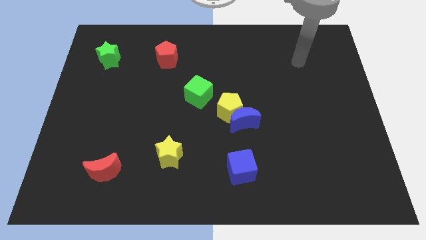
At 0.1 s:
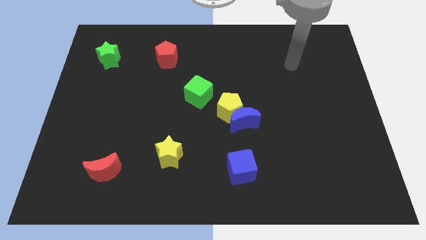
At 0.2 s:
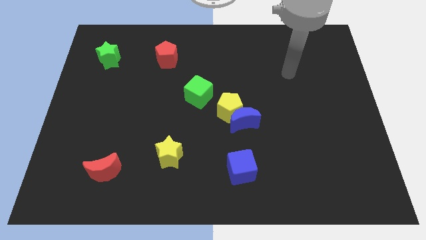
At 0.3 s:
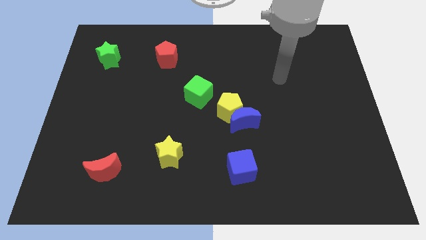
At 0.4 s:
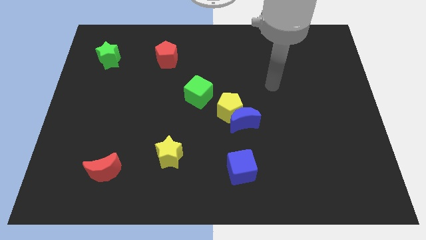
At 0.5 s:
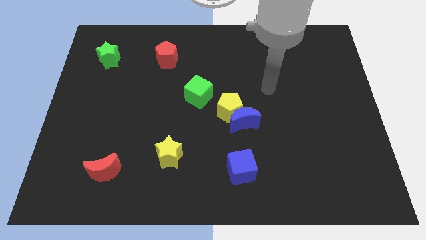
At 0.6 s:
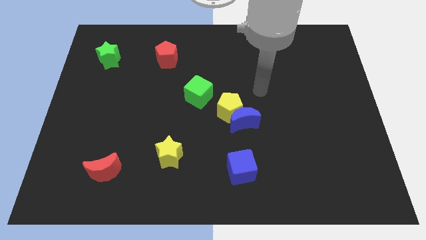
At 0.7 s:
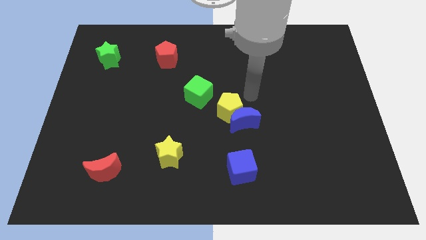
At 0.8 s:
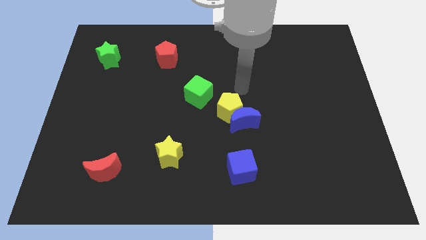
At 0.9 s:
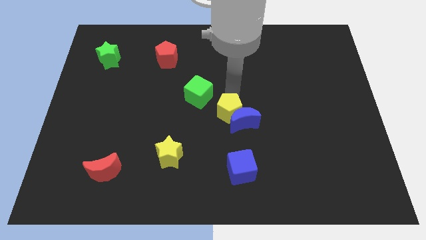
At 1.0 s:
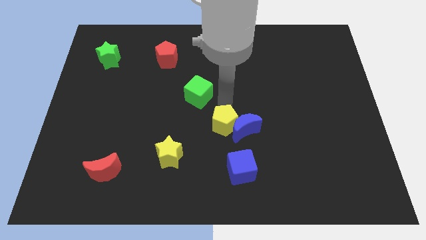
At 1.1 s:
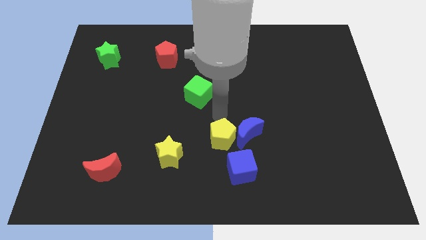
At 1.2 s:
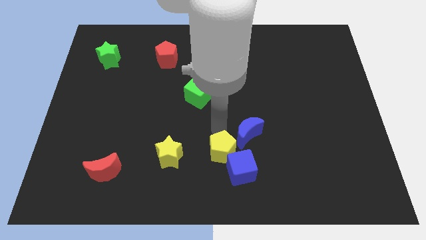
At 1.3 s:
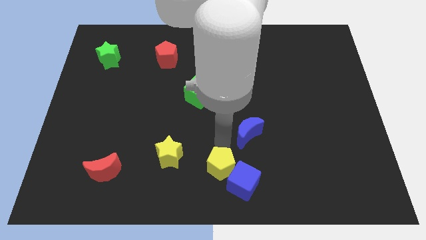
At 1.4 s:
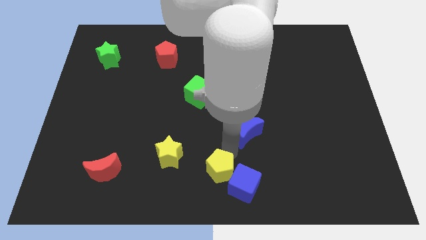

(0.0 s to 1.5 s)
pull the blue moon apart from the yellow pentagon

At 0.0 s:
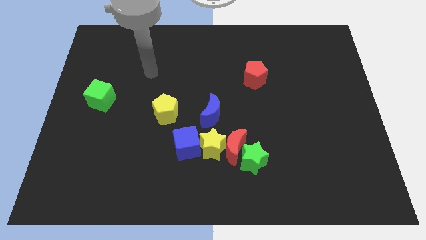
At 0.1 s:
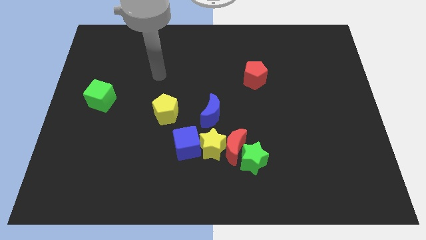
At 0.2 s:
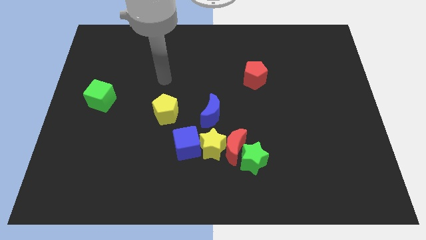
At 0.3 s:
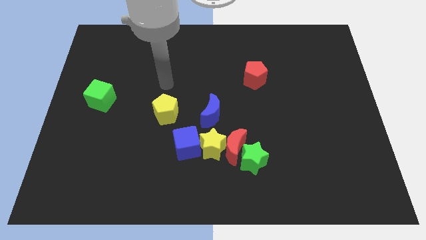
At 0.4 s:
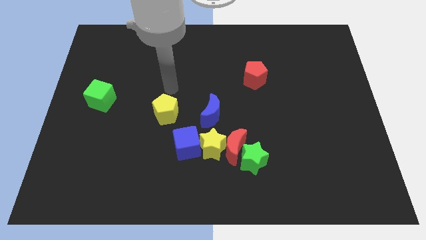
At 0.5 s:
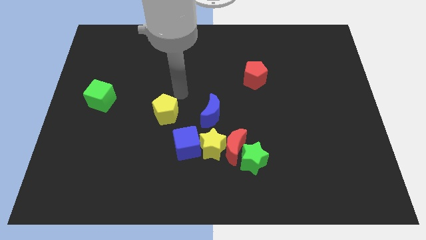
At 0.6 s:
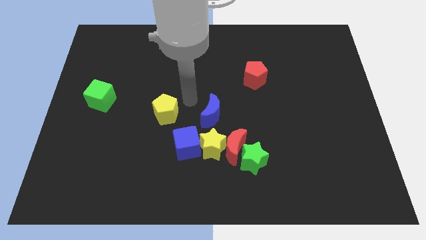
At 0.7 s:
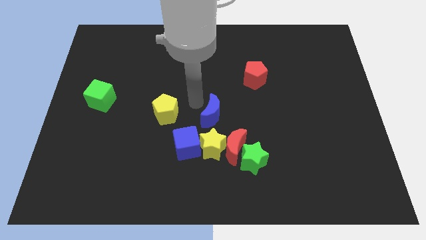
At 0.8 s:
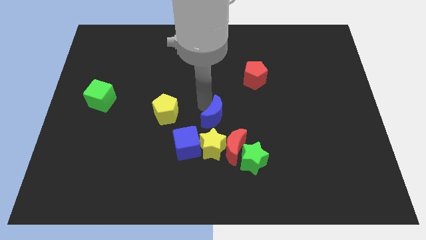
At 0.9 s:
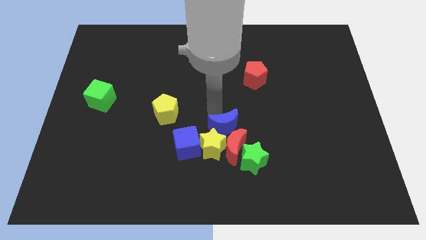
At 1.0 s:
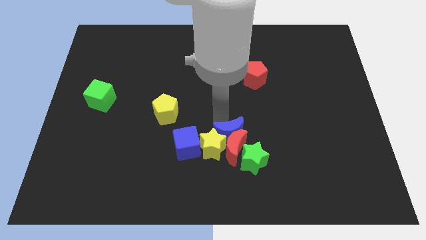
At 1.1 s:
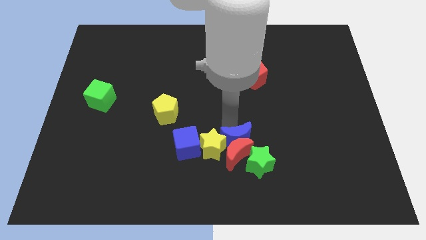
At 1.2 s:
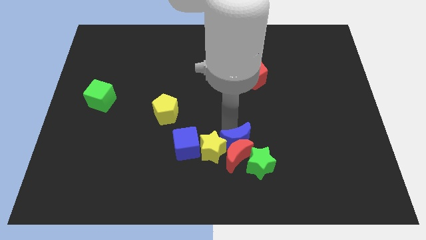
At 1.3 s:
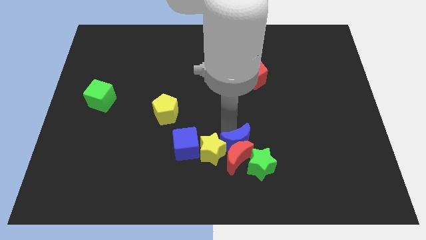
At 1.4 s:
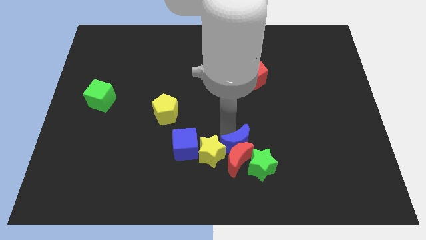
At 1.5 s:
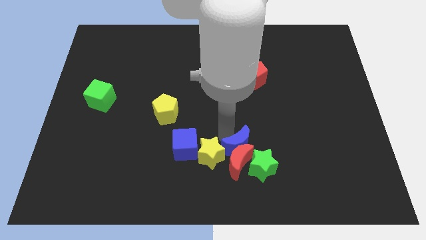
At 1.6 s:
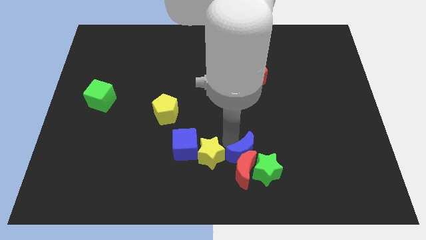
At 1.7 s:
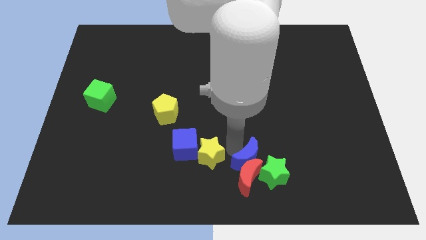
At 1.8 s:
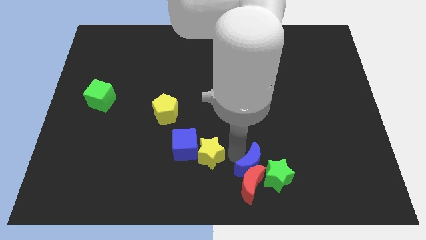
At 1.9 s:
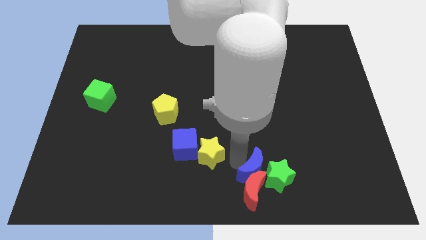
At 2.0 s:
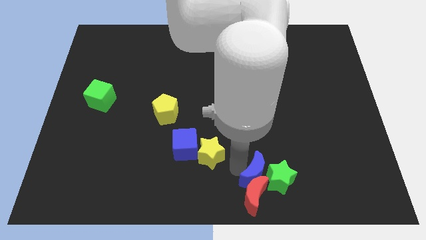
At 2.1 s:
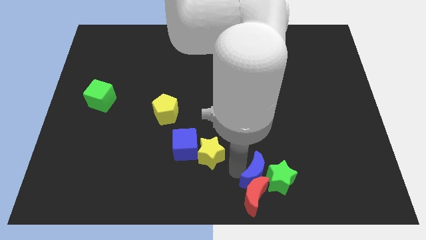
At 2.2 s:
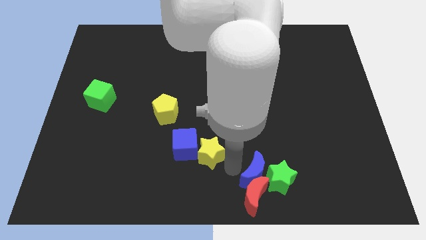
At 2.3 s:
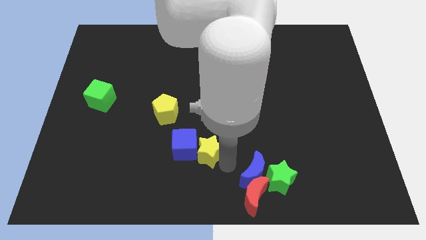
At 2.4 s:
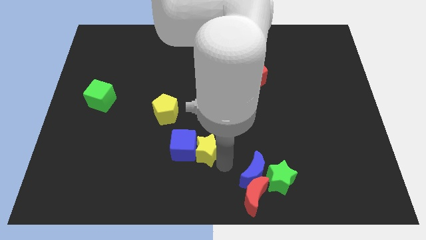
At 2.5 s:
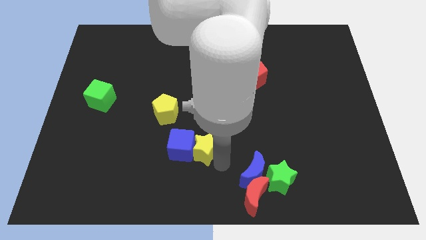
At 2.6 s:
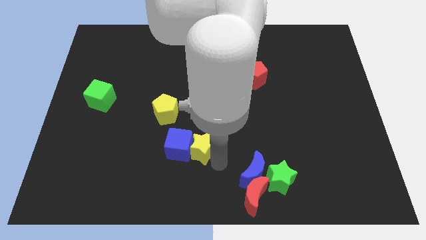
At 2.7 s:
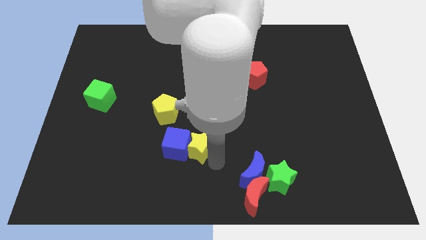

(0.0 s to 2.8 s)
move the yellow star away from the clump

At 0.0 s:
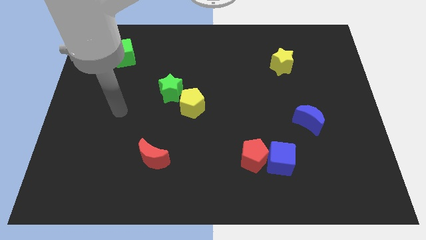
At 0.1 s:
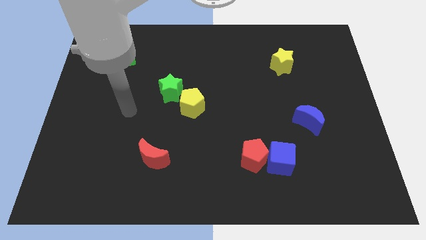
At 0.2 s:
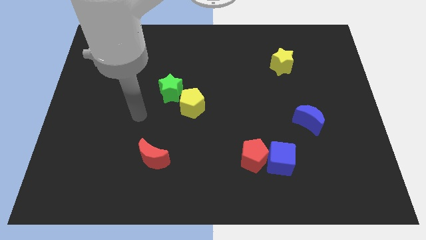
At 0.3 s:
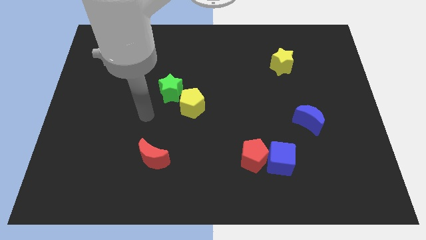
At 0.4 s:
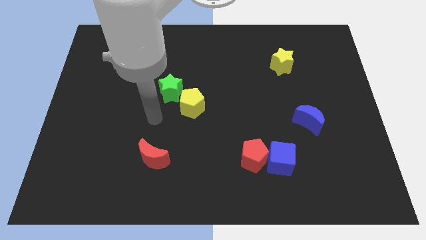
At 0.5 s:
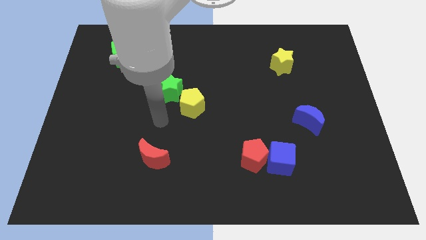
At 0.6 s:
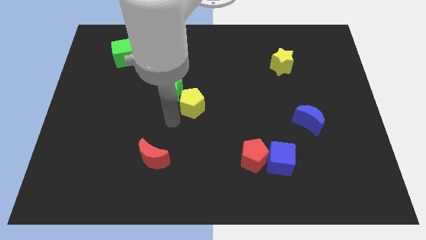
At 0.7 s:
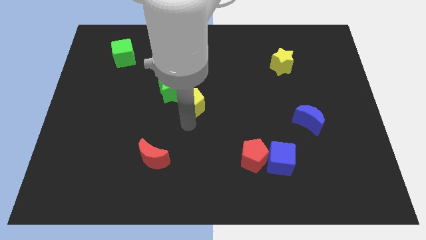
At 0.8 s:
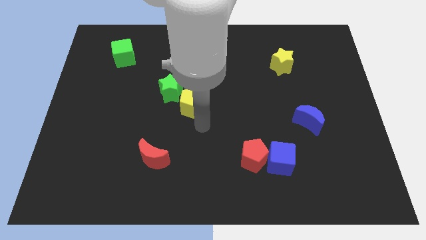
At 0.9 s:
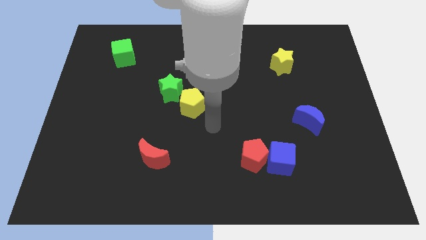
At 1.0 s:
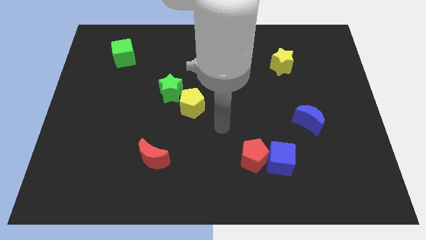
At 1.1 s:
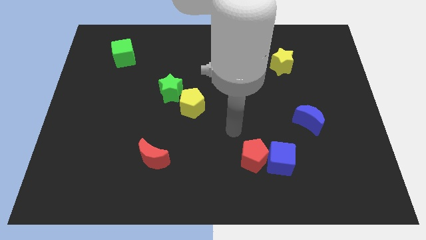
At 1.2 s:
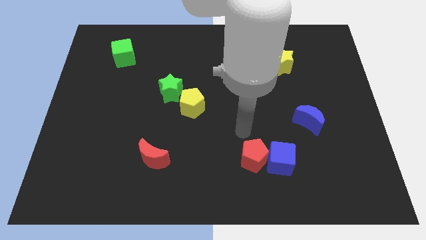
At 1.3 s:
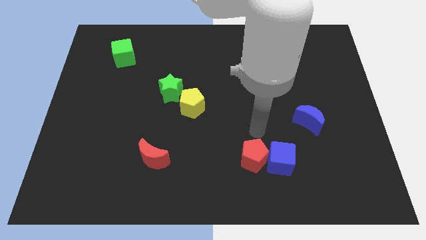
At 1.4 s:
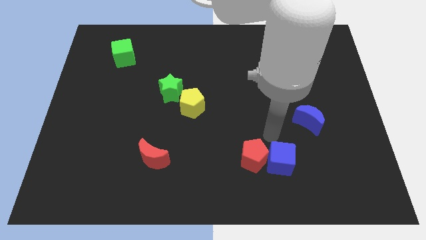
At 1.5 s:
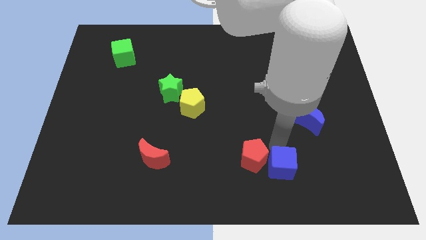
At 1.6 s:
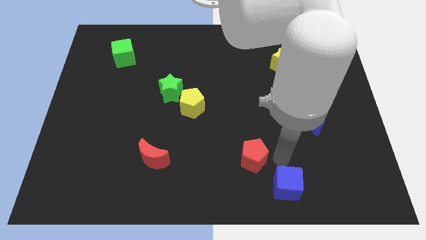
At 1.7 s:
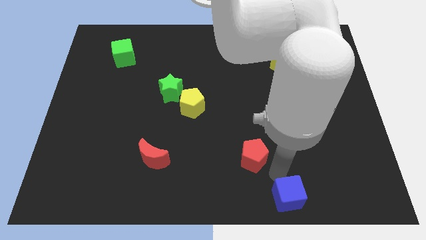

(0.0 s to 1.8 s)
pull the red pentagon apart from the blue cube

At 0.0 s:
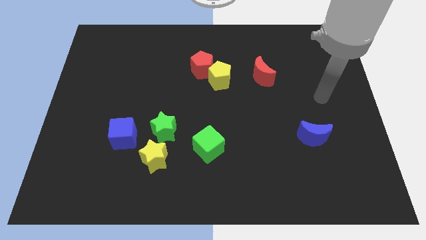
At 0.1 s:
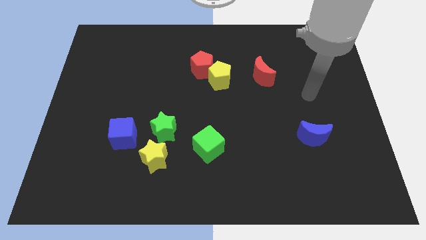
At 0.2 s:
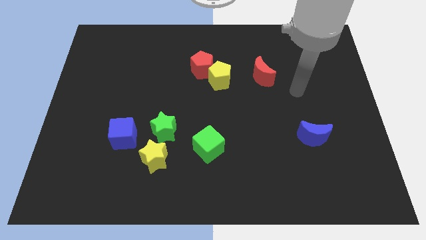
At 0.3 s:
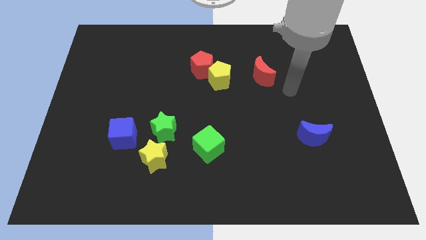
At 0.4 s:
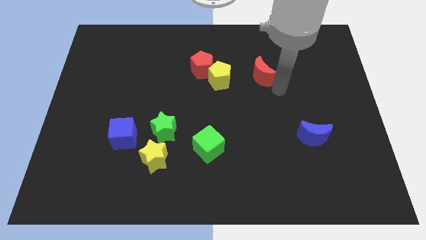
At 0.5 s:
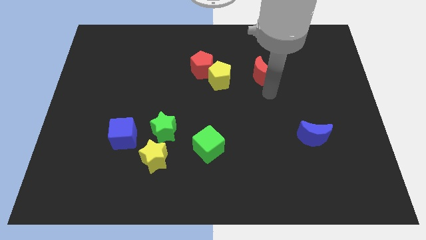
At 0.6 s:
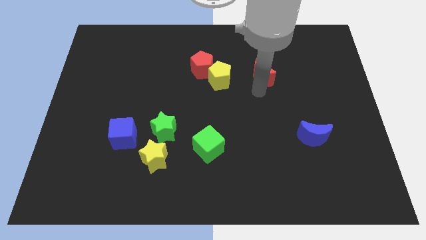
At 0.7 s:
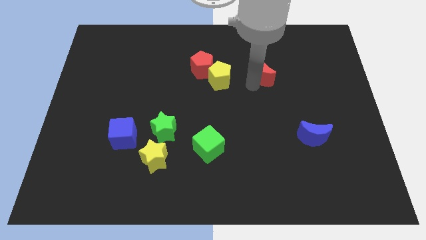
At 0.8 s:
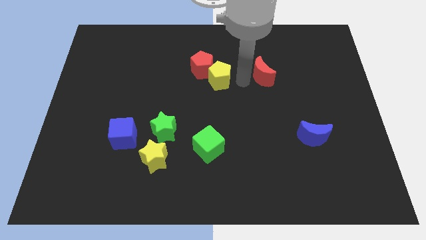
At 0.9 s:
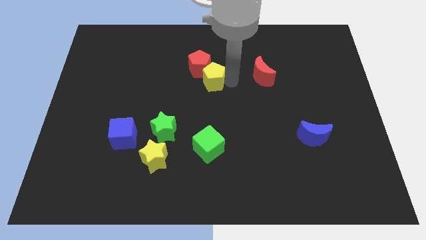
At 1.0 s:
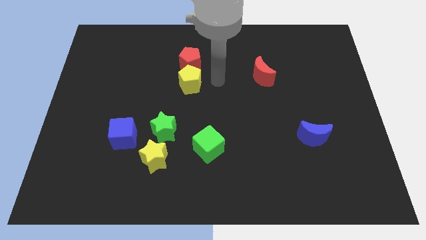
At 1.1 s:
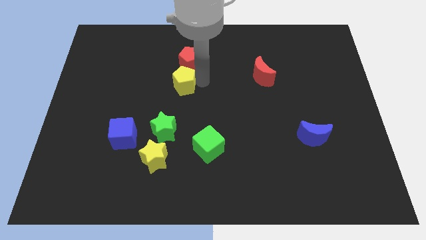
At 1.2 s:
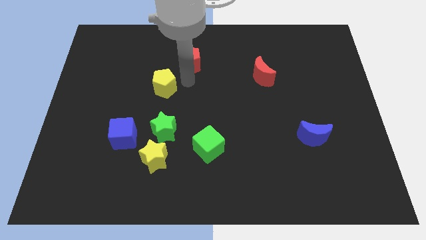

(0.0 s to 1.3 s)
pull the red pentagon apart from the yellow pentagon

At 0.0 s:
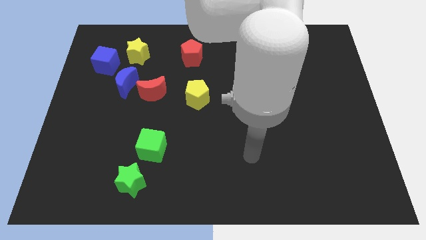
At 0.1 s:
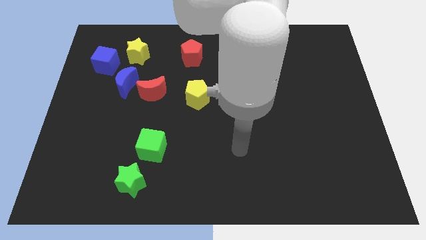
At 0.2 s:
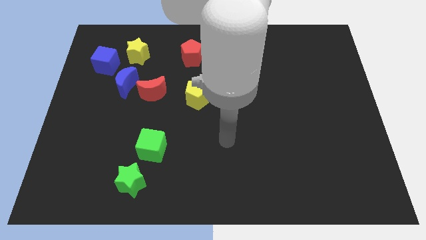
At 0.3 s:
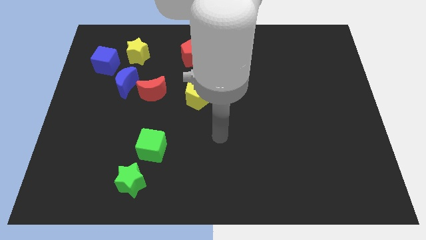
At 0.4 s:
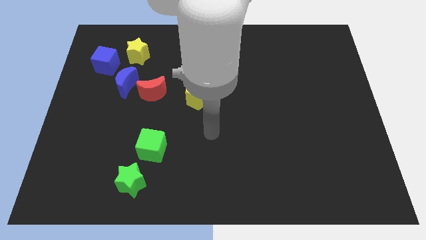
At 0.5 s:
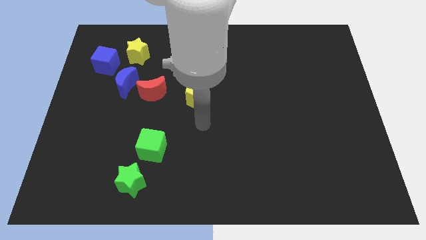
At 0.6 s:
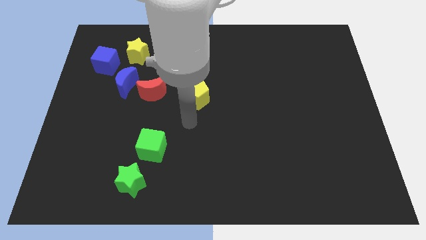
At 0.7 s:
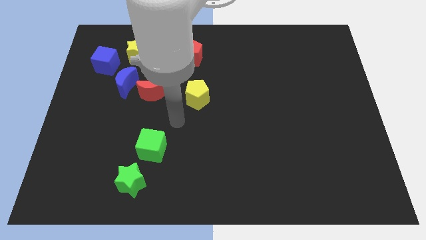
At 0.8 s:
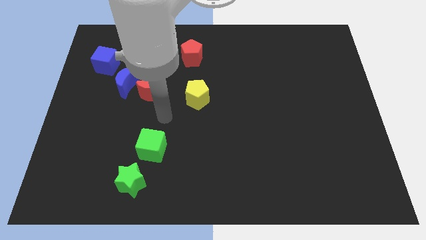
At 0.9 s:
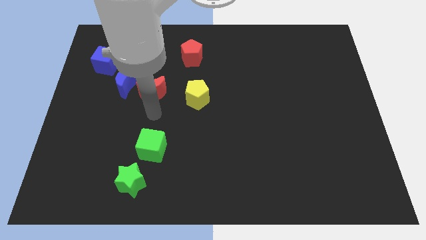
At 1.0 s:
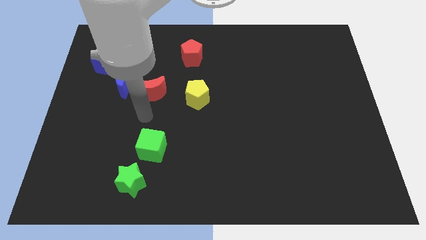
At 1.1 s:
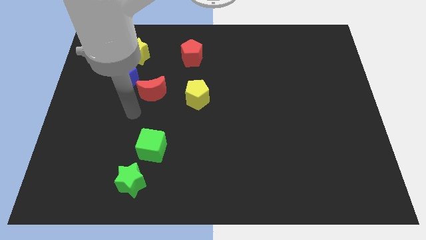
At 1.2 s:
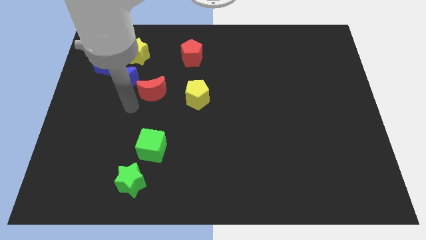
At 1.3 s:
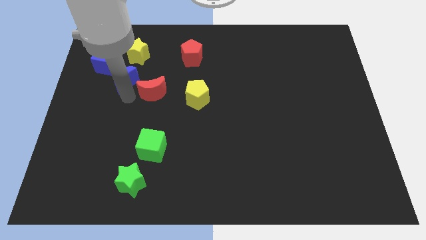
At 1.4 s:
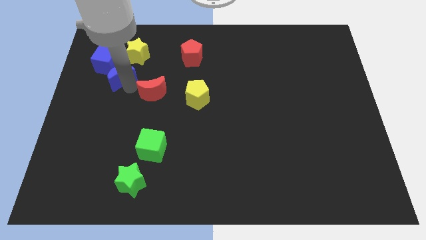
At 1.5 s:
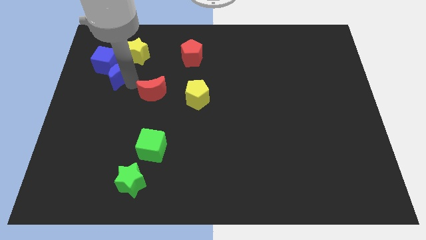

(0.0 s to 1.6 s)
separate the red moon from the blue moon

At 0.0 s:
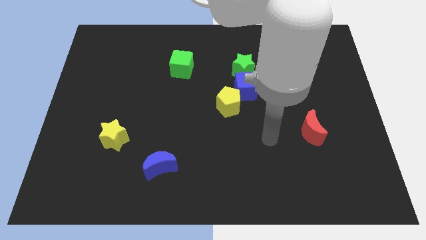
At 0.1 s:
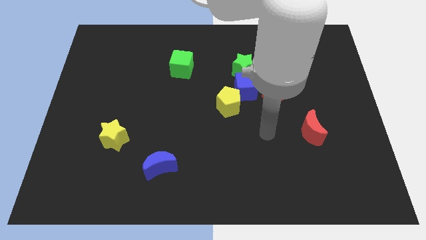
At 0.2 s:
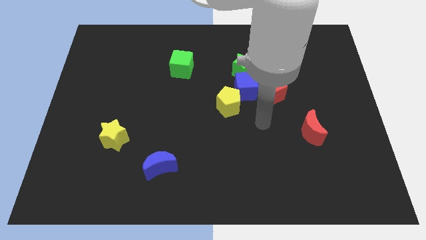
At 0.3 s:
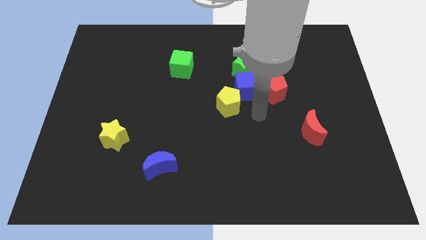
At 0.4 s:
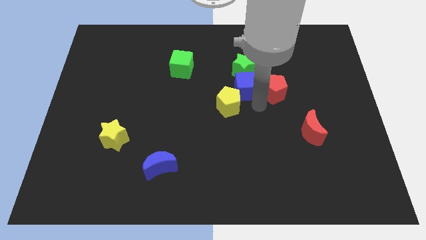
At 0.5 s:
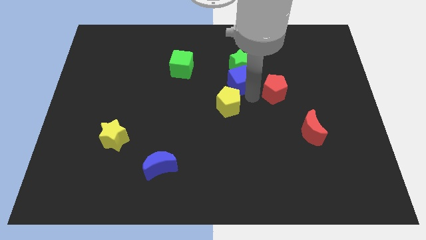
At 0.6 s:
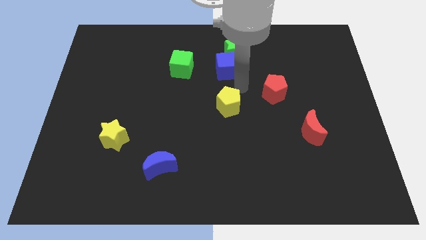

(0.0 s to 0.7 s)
separate the yellow pentagon from the blue cube
